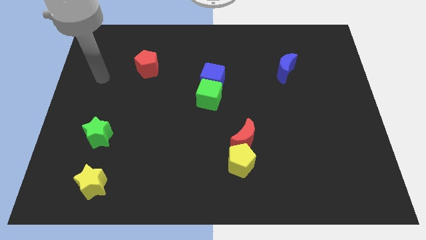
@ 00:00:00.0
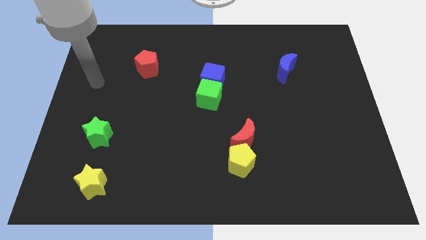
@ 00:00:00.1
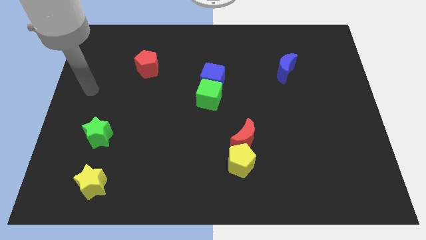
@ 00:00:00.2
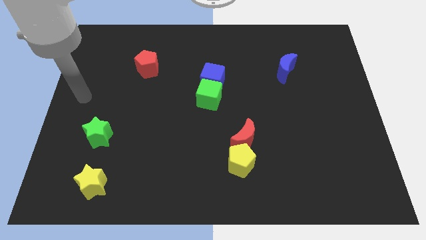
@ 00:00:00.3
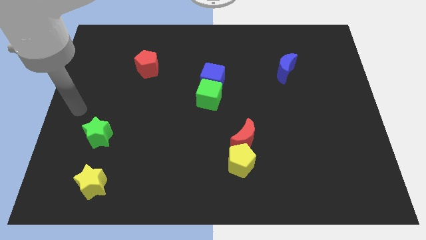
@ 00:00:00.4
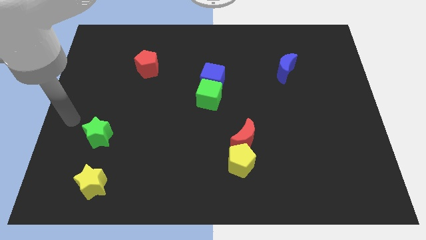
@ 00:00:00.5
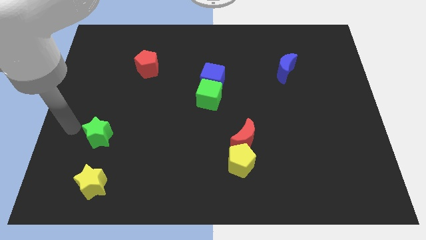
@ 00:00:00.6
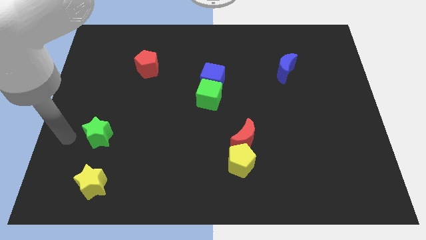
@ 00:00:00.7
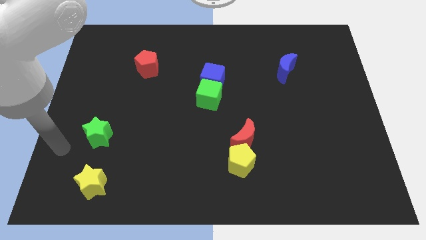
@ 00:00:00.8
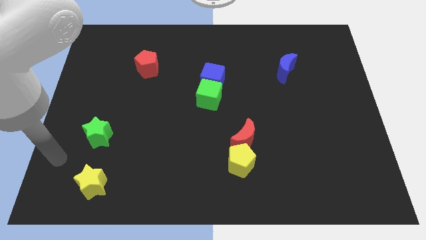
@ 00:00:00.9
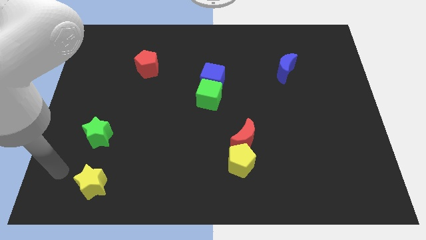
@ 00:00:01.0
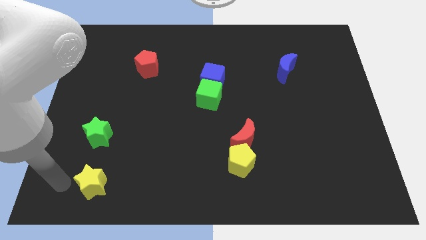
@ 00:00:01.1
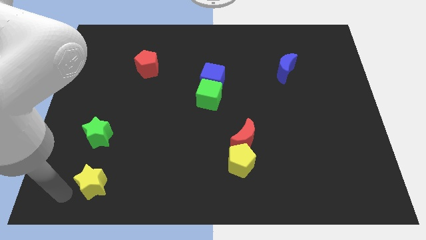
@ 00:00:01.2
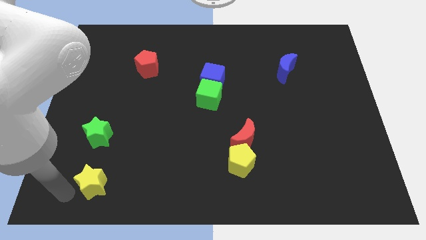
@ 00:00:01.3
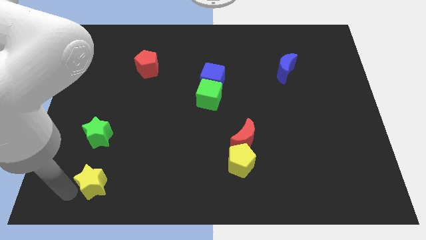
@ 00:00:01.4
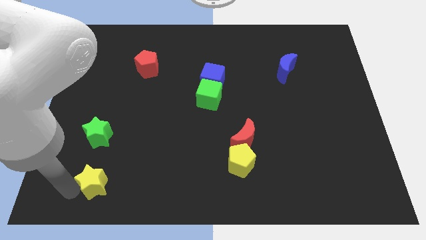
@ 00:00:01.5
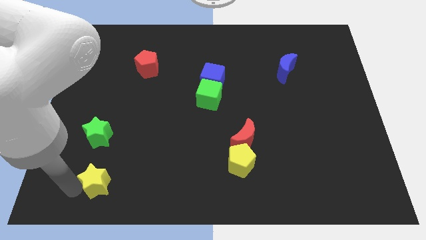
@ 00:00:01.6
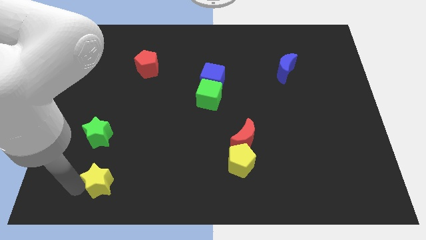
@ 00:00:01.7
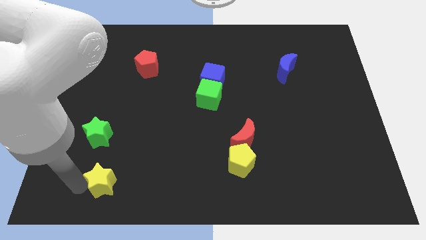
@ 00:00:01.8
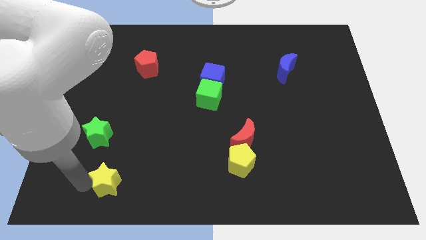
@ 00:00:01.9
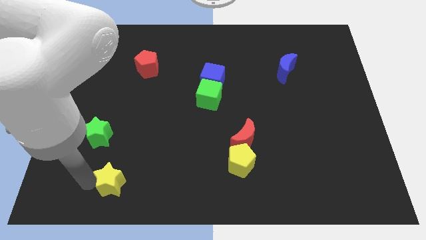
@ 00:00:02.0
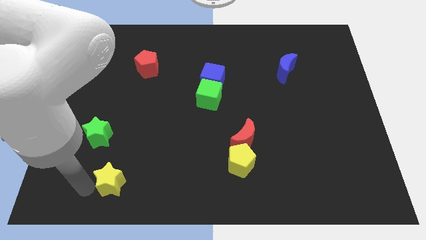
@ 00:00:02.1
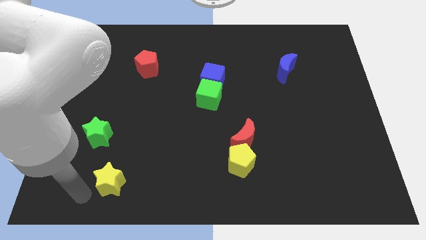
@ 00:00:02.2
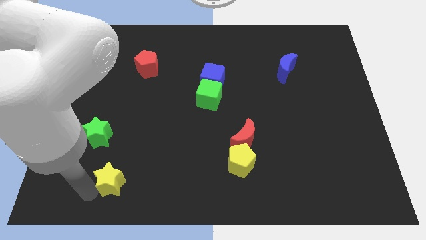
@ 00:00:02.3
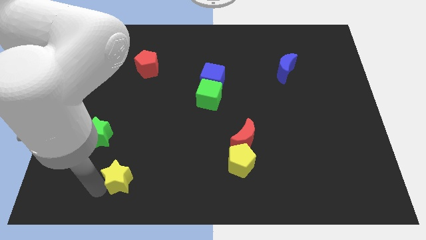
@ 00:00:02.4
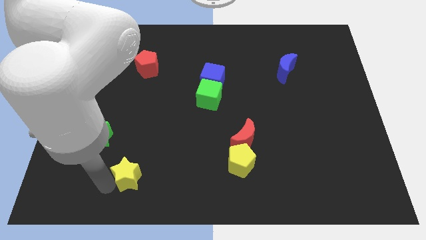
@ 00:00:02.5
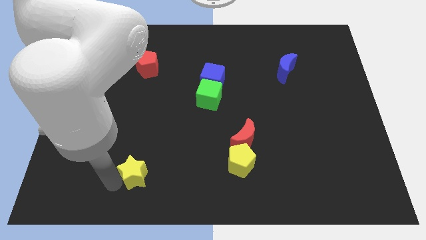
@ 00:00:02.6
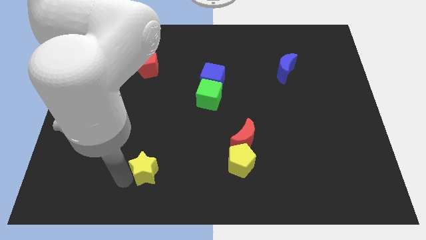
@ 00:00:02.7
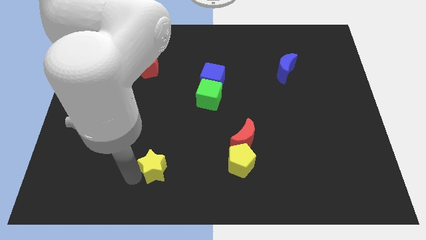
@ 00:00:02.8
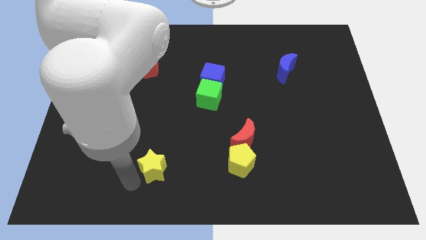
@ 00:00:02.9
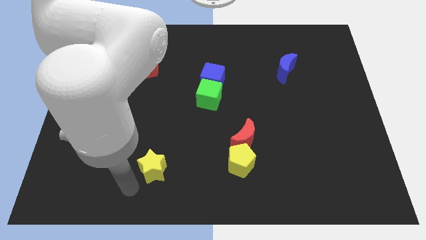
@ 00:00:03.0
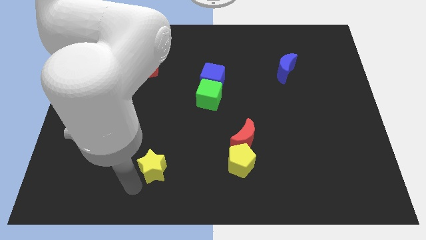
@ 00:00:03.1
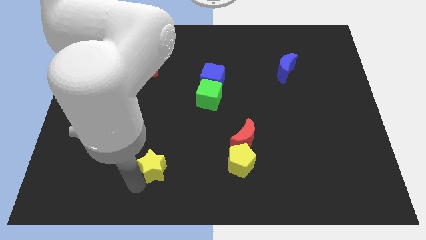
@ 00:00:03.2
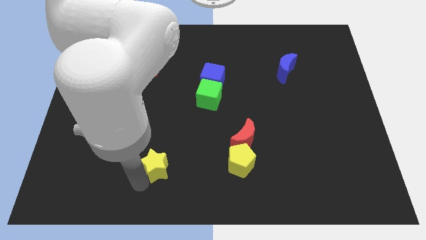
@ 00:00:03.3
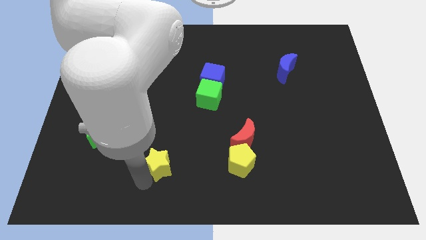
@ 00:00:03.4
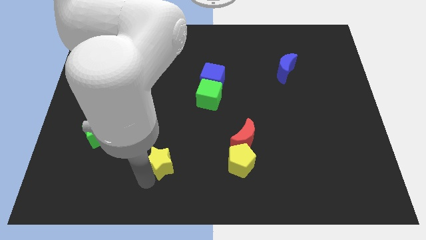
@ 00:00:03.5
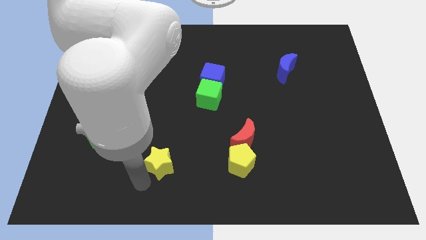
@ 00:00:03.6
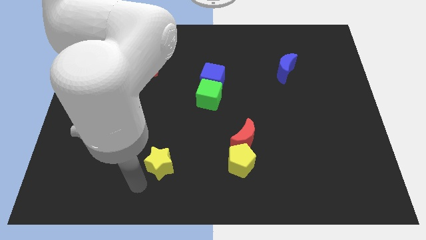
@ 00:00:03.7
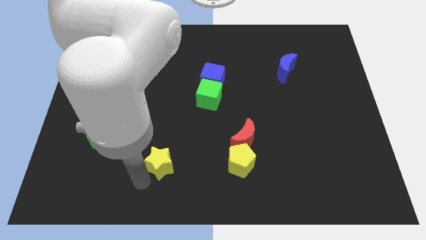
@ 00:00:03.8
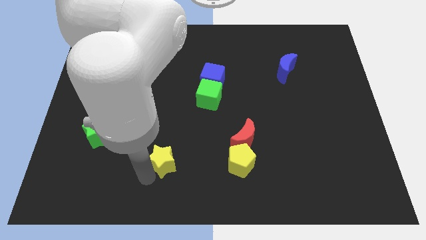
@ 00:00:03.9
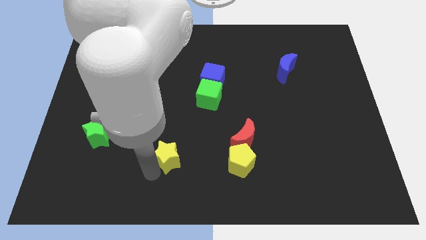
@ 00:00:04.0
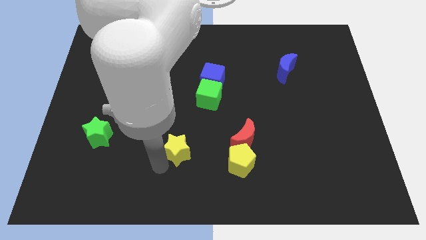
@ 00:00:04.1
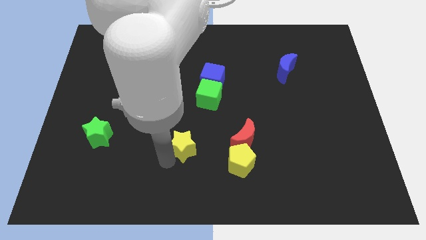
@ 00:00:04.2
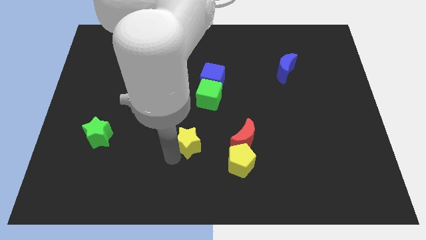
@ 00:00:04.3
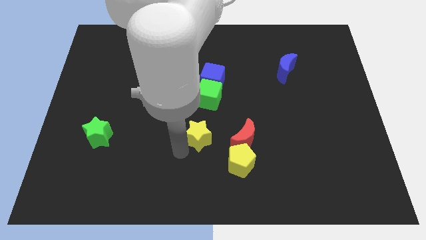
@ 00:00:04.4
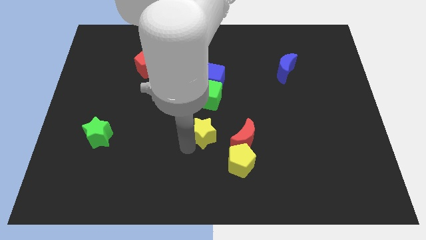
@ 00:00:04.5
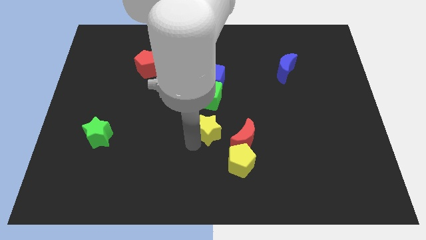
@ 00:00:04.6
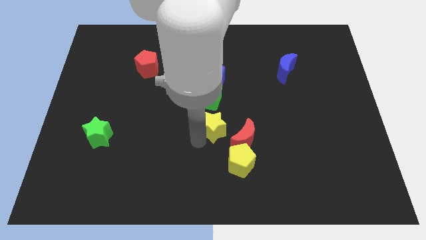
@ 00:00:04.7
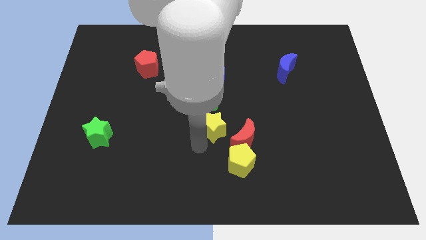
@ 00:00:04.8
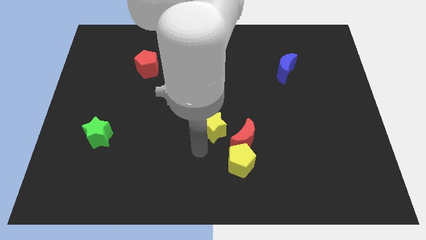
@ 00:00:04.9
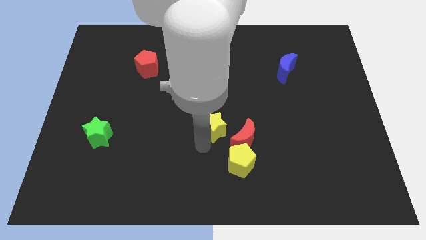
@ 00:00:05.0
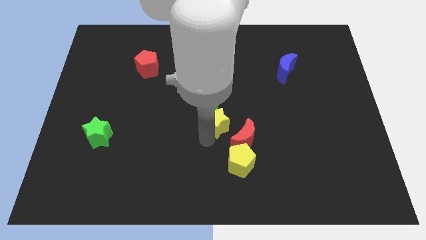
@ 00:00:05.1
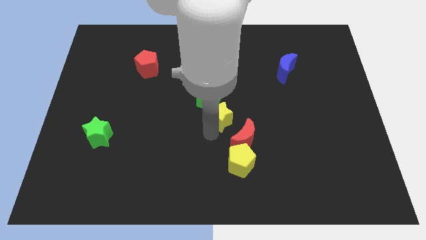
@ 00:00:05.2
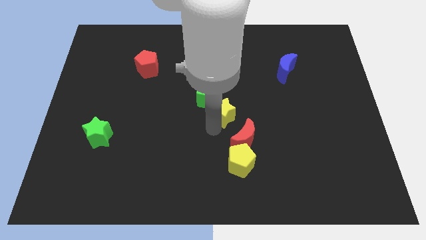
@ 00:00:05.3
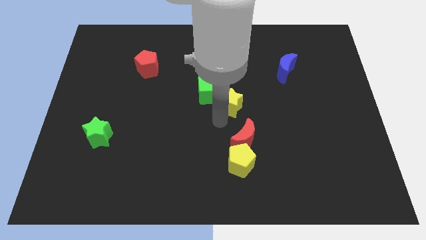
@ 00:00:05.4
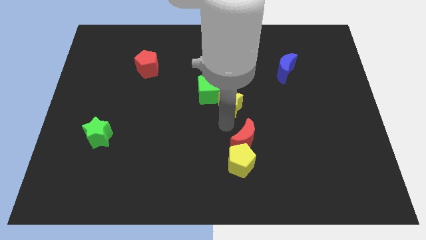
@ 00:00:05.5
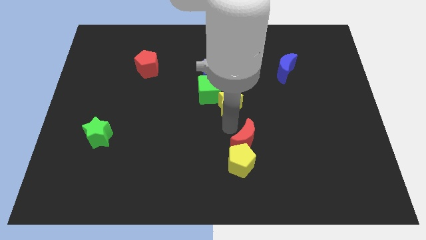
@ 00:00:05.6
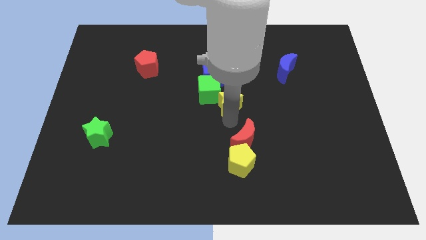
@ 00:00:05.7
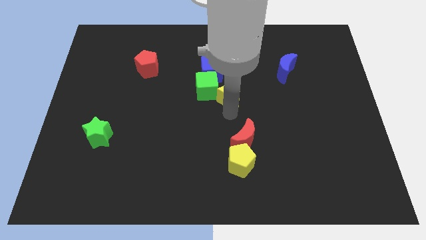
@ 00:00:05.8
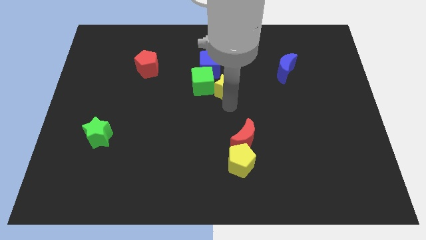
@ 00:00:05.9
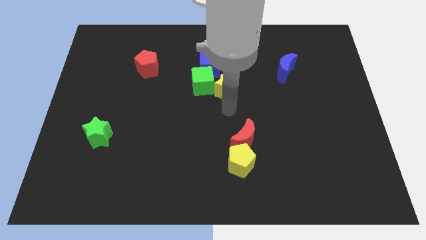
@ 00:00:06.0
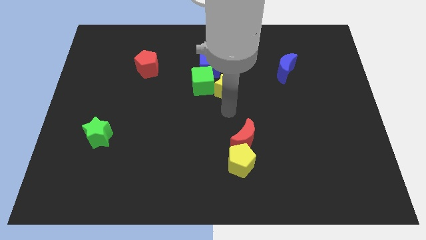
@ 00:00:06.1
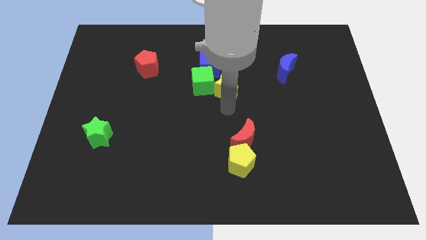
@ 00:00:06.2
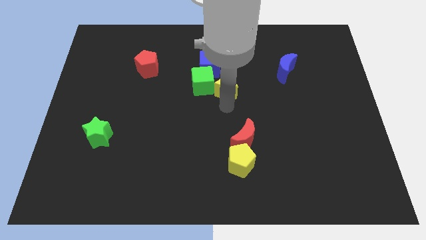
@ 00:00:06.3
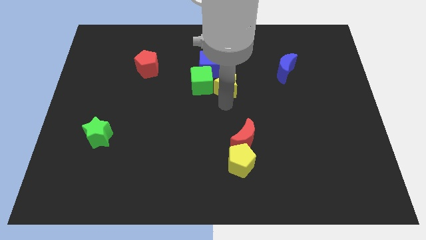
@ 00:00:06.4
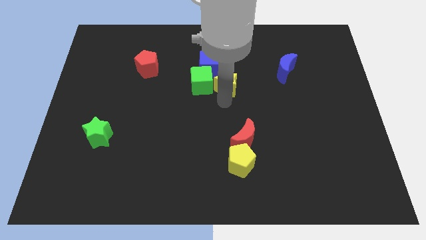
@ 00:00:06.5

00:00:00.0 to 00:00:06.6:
push the yellow star to the top right of the green cube

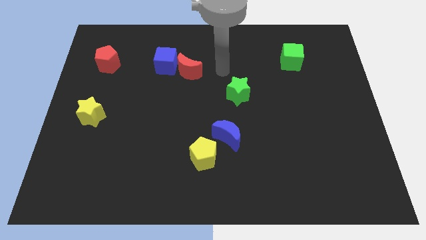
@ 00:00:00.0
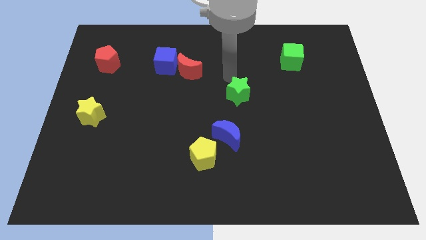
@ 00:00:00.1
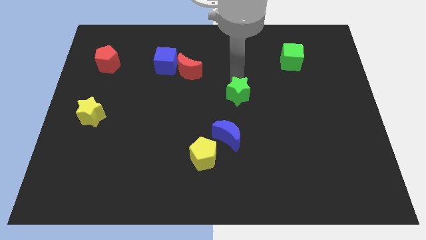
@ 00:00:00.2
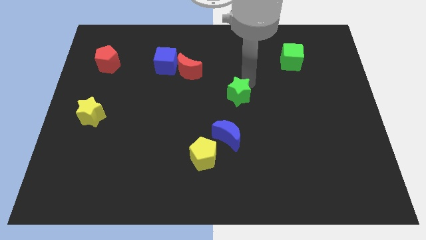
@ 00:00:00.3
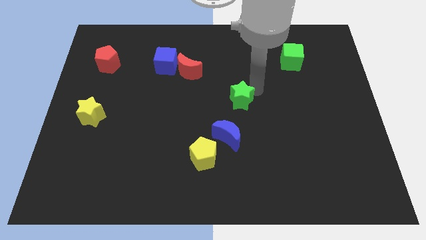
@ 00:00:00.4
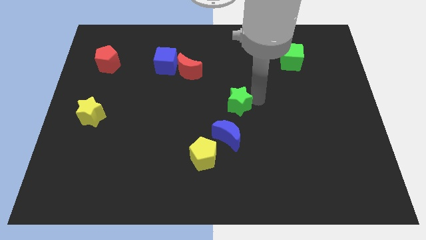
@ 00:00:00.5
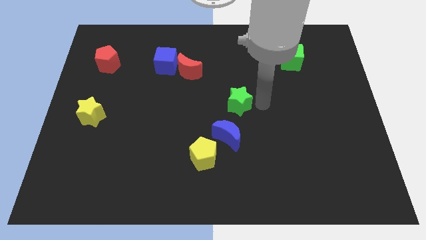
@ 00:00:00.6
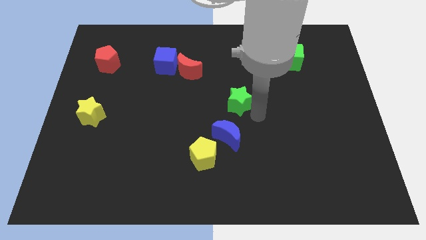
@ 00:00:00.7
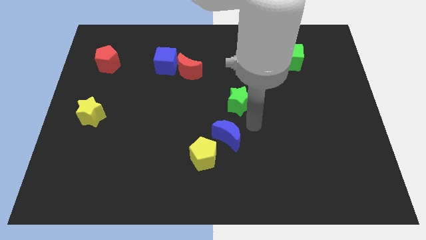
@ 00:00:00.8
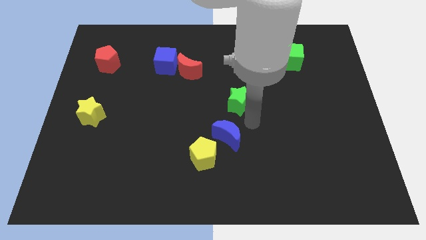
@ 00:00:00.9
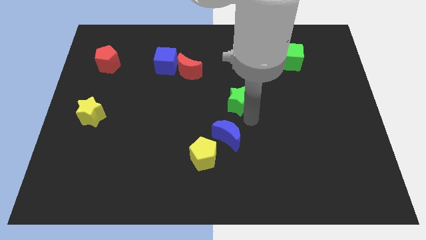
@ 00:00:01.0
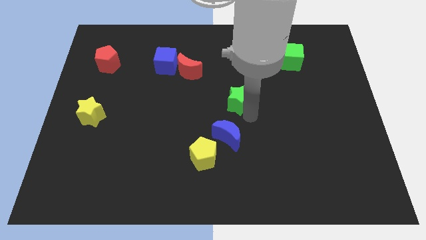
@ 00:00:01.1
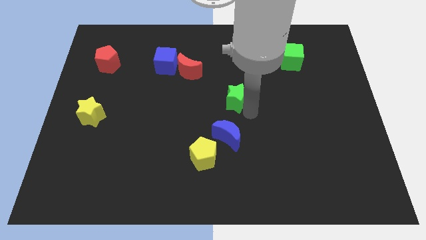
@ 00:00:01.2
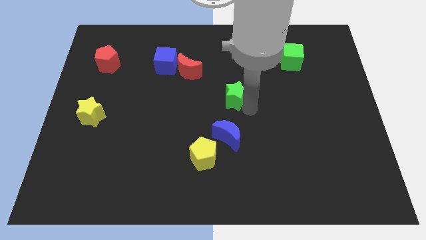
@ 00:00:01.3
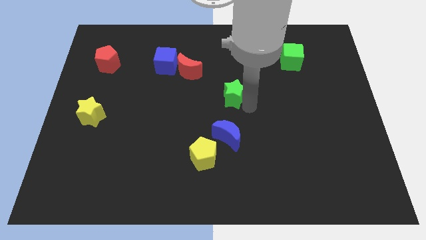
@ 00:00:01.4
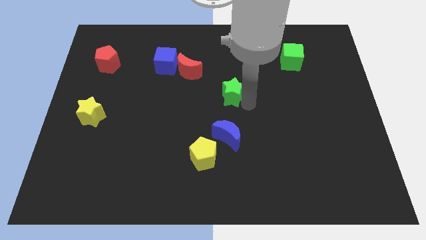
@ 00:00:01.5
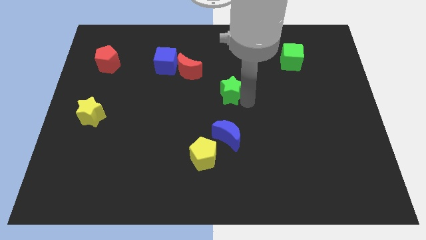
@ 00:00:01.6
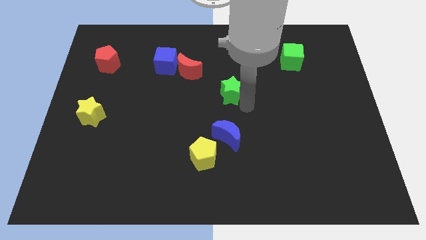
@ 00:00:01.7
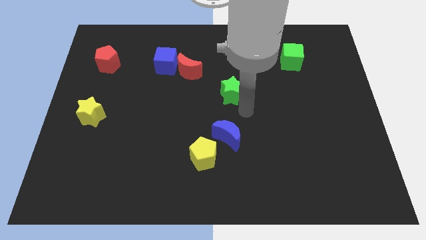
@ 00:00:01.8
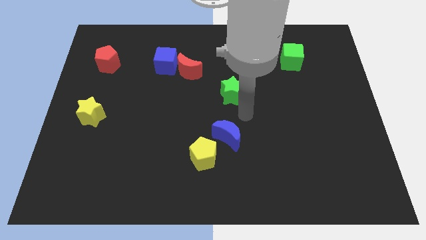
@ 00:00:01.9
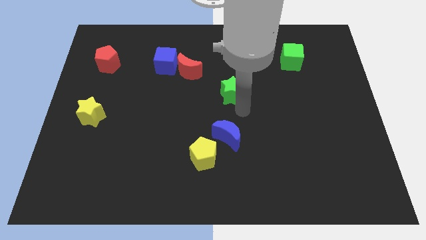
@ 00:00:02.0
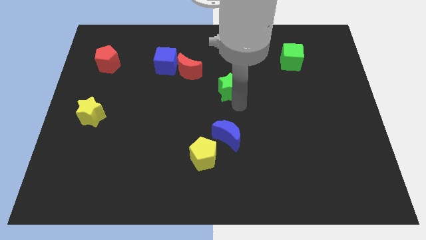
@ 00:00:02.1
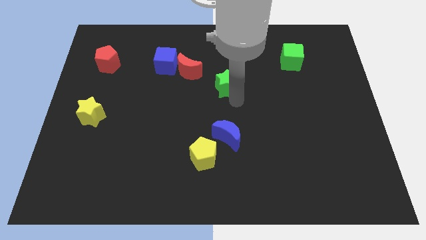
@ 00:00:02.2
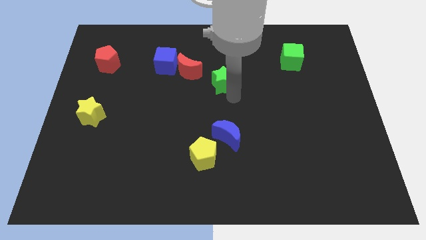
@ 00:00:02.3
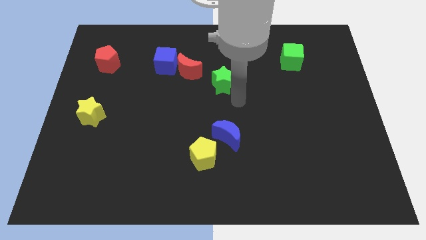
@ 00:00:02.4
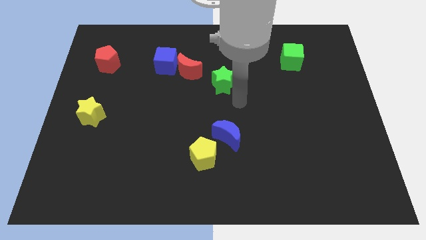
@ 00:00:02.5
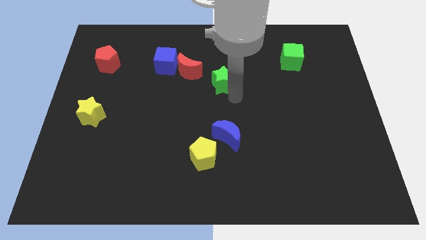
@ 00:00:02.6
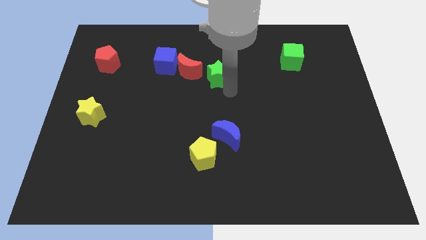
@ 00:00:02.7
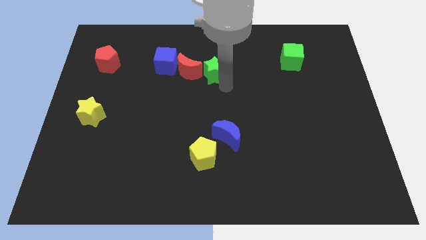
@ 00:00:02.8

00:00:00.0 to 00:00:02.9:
push the green star to the right of the blue cube
